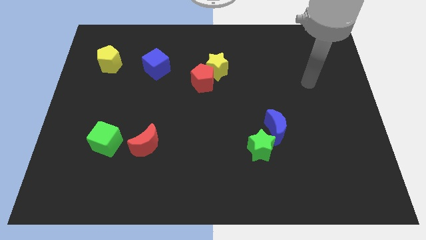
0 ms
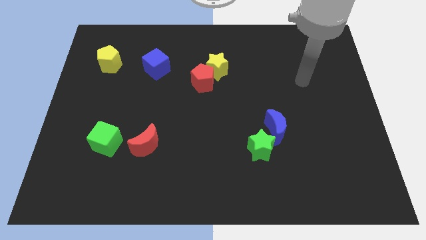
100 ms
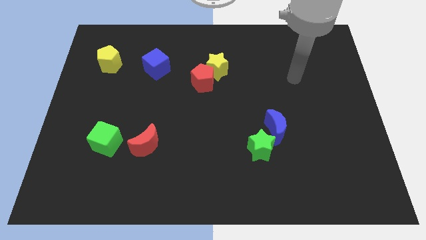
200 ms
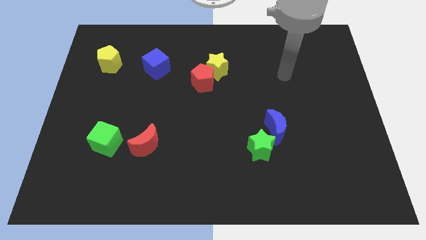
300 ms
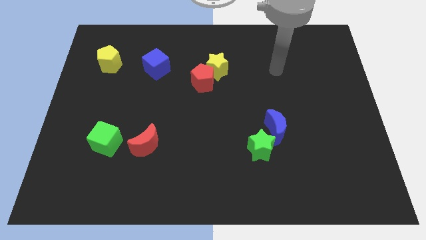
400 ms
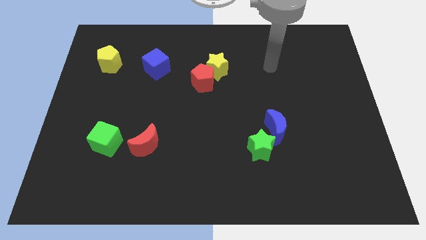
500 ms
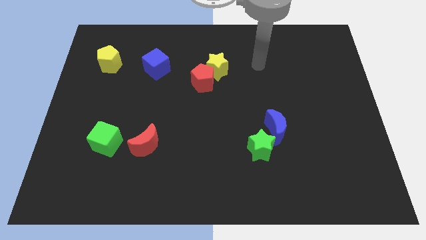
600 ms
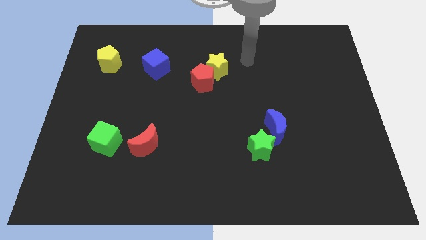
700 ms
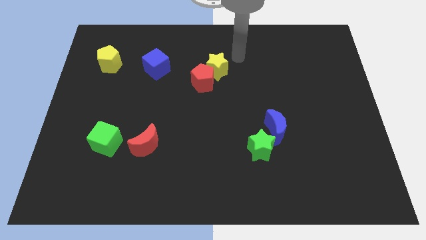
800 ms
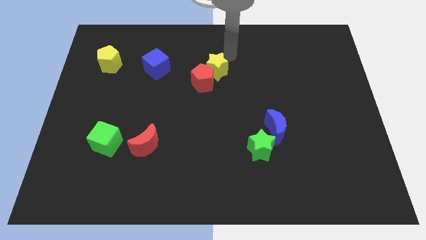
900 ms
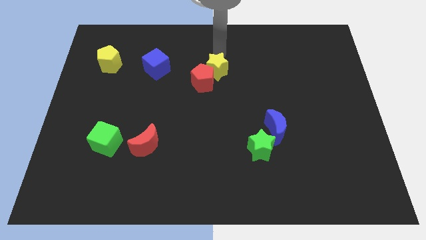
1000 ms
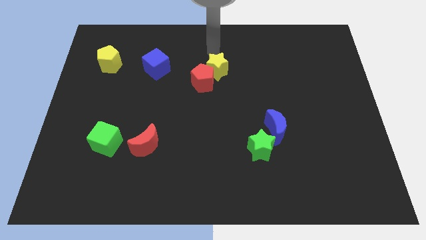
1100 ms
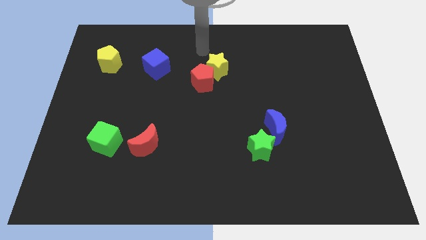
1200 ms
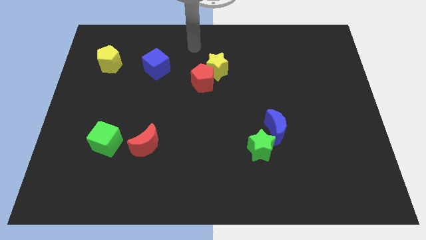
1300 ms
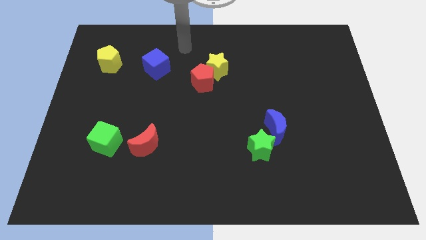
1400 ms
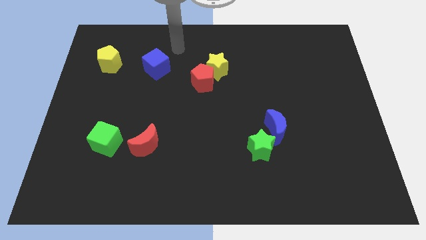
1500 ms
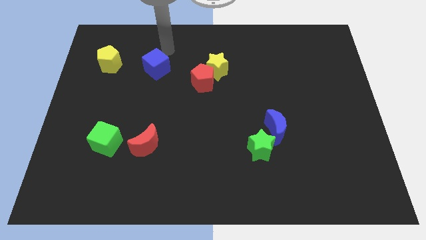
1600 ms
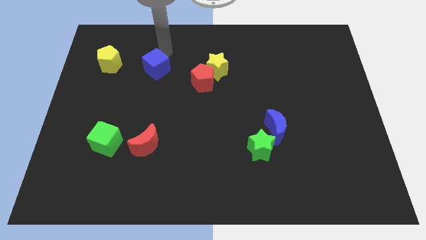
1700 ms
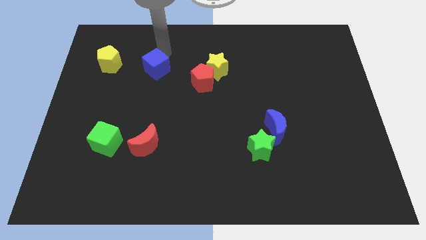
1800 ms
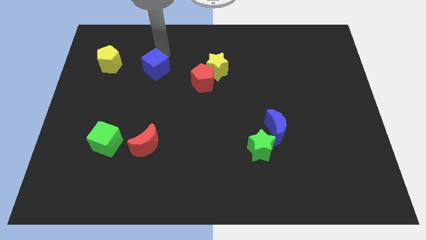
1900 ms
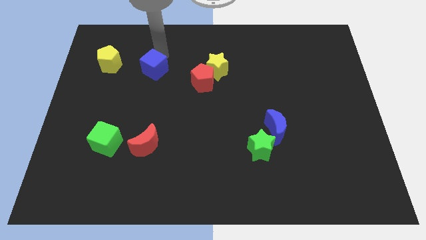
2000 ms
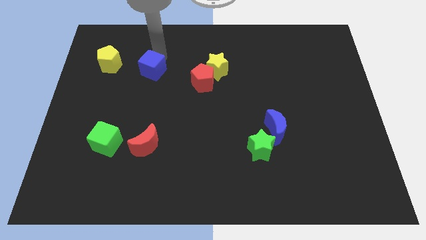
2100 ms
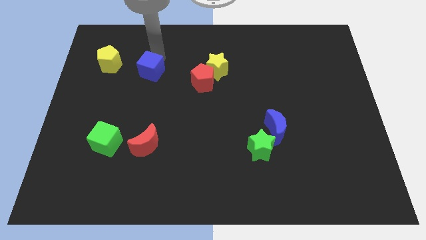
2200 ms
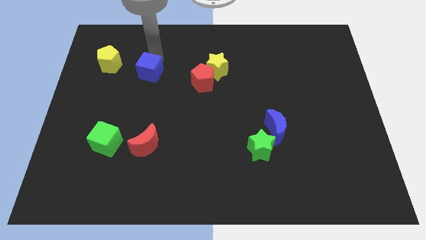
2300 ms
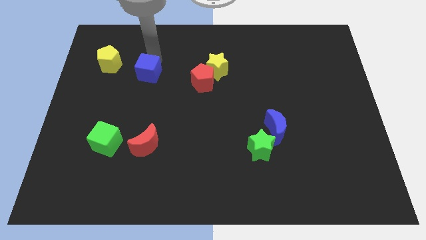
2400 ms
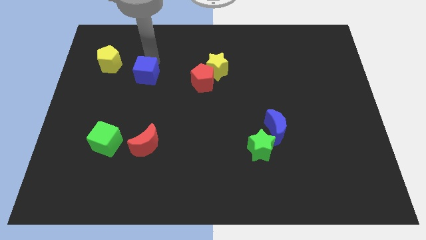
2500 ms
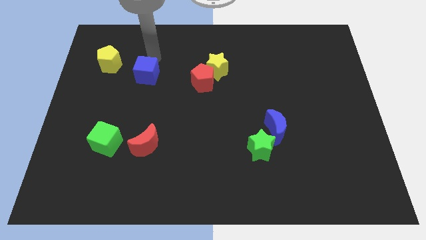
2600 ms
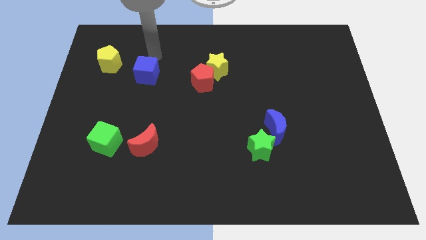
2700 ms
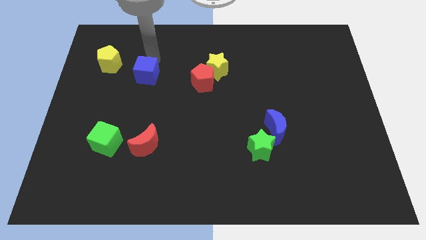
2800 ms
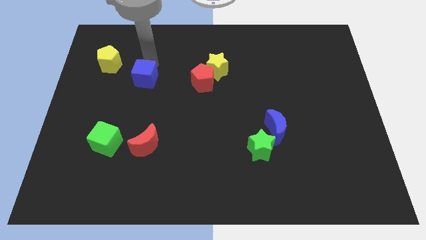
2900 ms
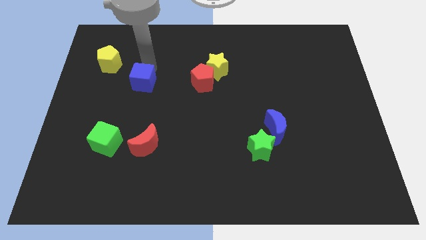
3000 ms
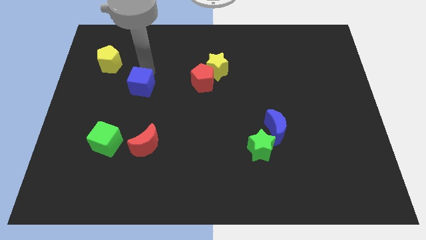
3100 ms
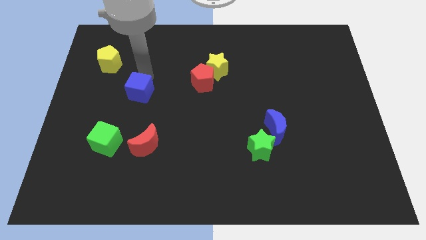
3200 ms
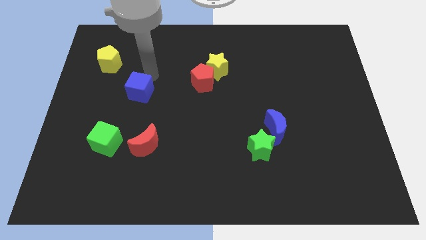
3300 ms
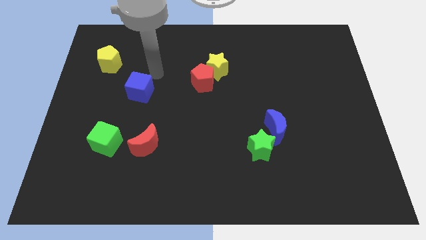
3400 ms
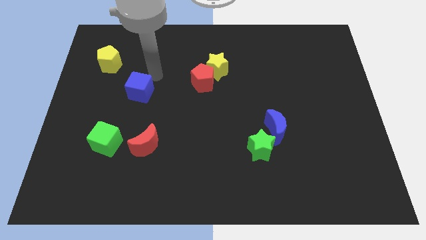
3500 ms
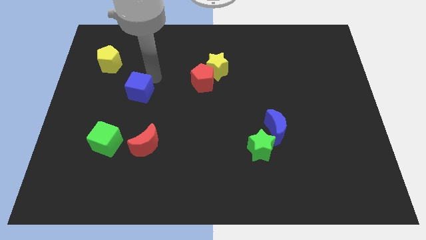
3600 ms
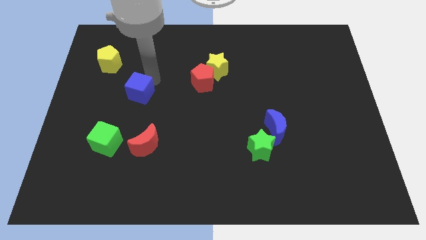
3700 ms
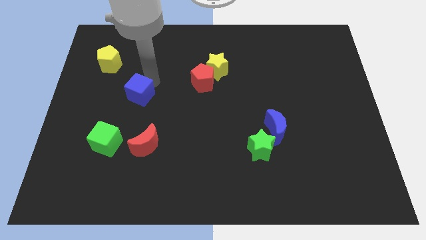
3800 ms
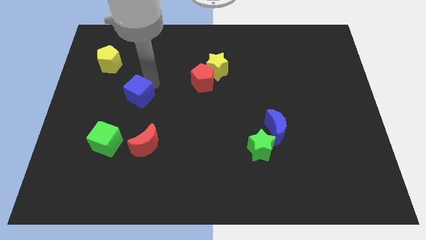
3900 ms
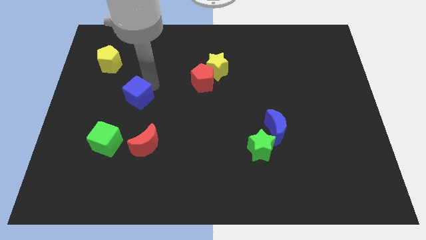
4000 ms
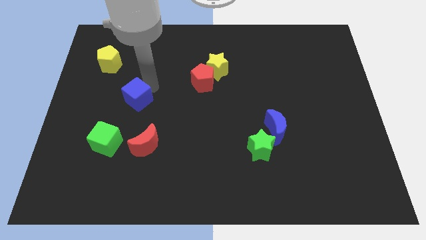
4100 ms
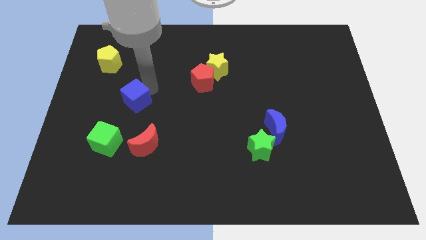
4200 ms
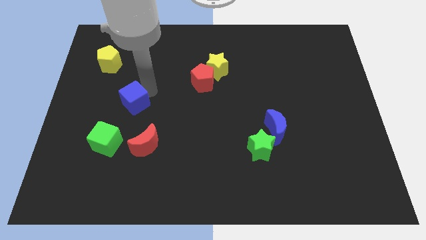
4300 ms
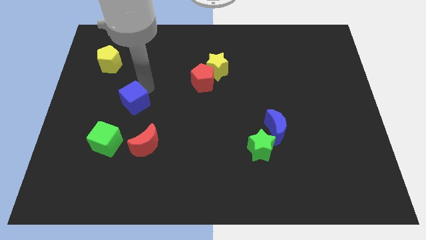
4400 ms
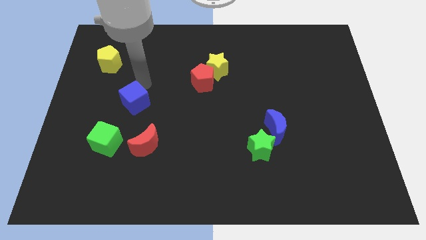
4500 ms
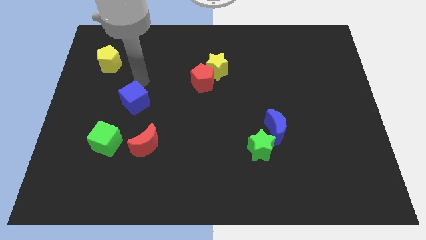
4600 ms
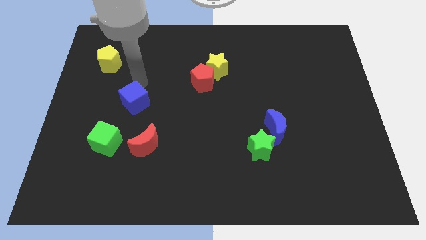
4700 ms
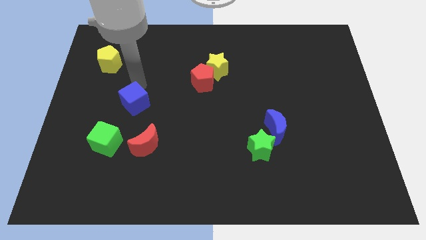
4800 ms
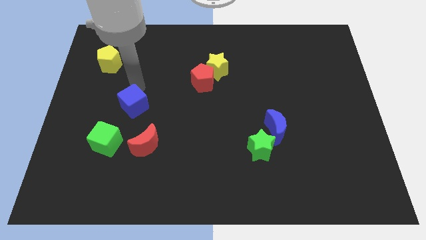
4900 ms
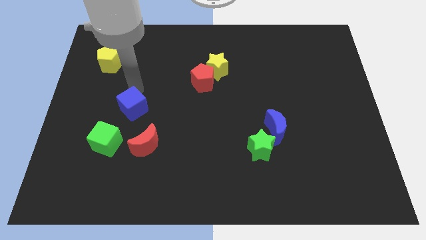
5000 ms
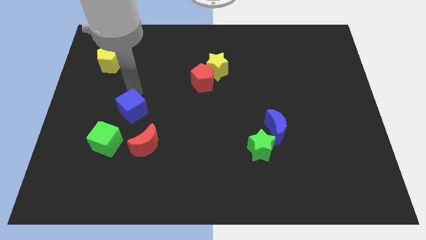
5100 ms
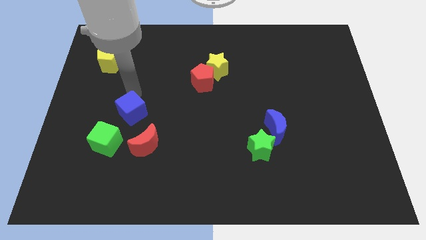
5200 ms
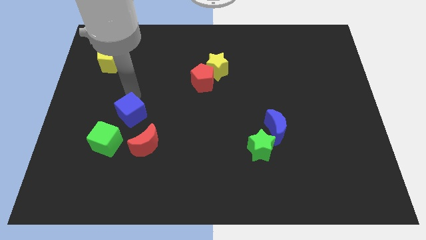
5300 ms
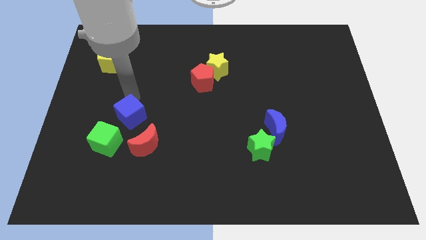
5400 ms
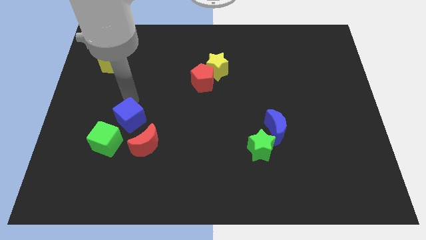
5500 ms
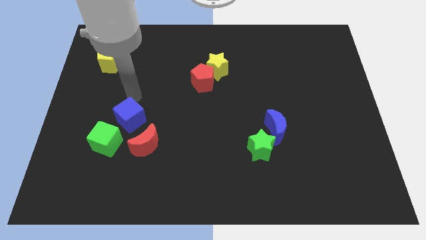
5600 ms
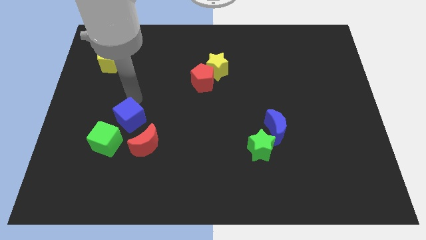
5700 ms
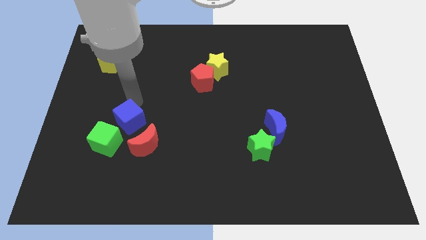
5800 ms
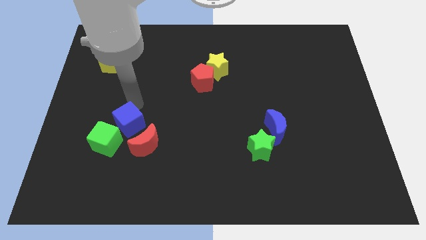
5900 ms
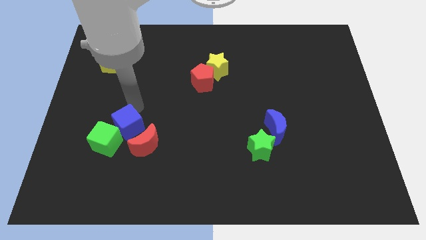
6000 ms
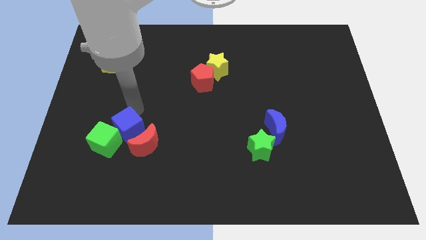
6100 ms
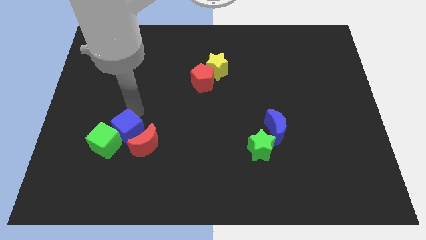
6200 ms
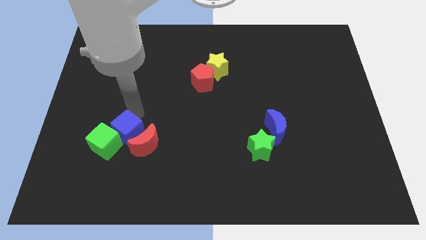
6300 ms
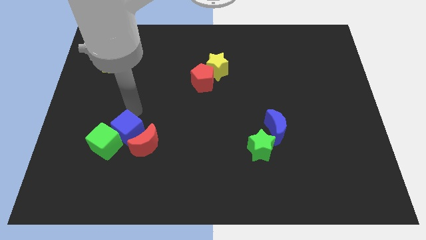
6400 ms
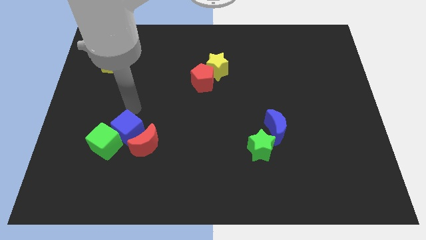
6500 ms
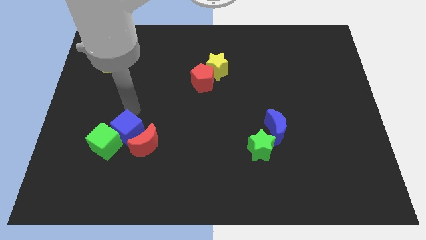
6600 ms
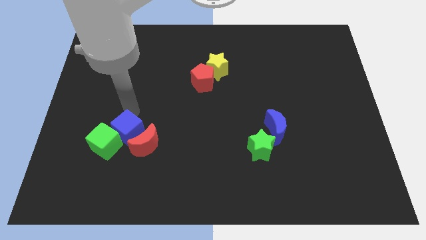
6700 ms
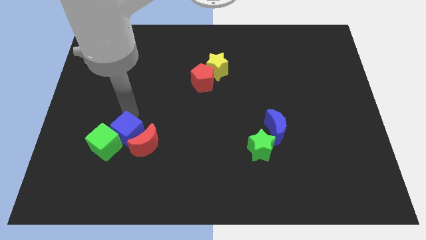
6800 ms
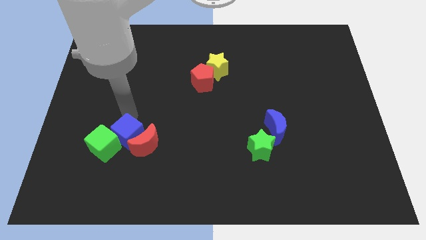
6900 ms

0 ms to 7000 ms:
move the blue cube downwards

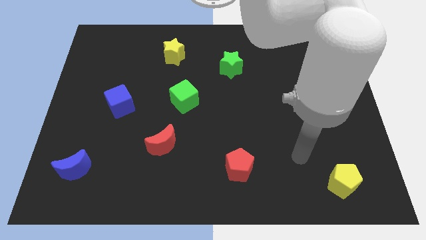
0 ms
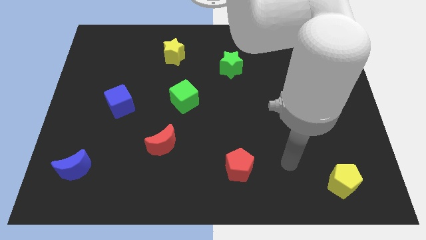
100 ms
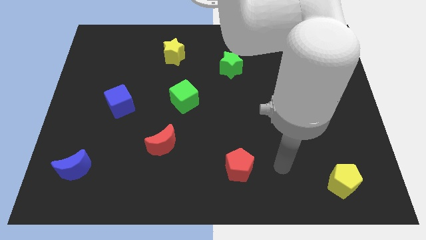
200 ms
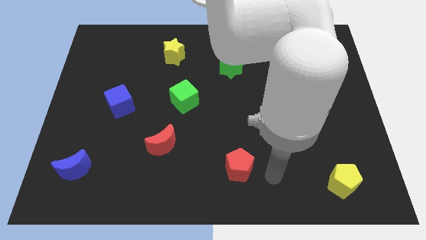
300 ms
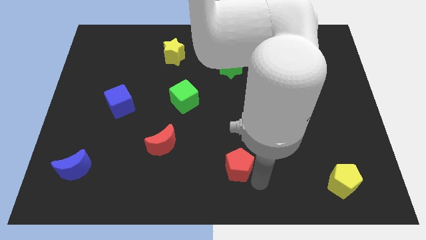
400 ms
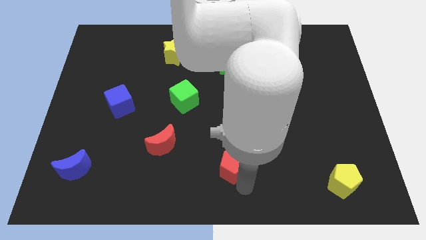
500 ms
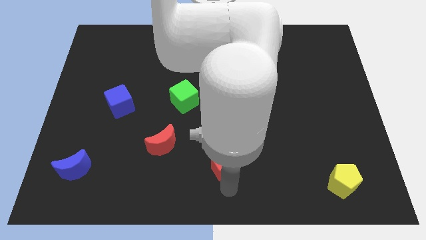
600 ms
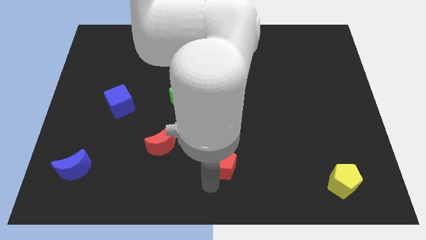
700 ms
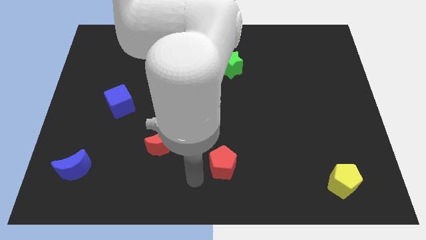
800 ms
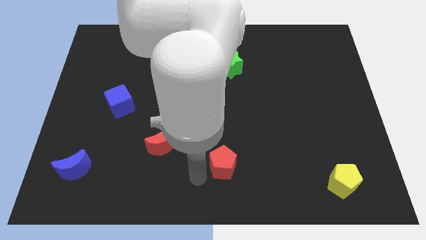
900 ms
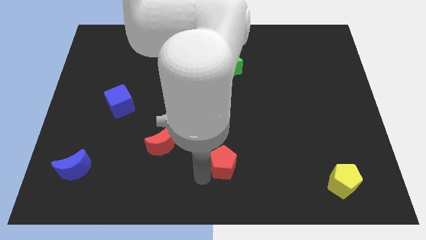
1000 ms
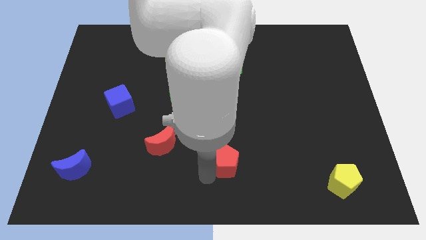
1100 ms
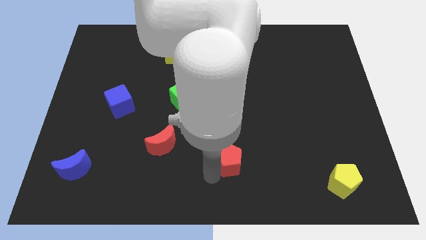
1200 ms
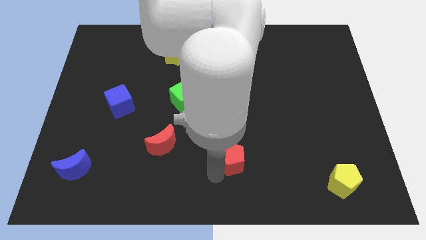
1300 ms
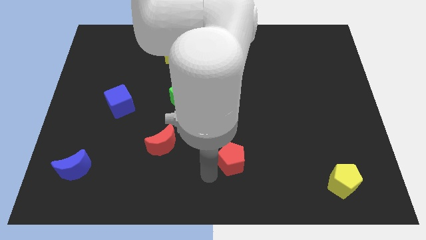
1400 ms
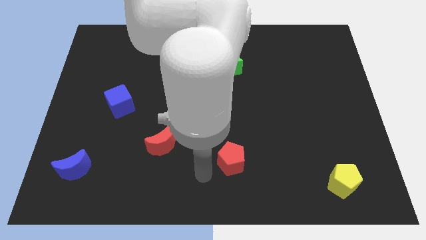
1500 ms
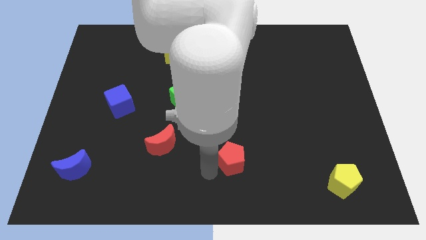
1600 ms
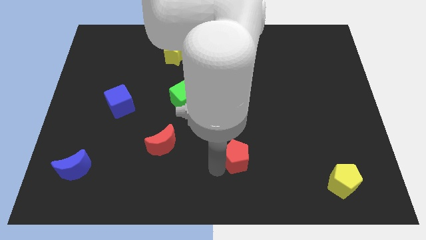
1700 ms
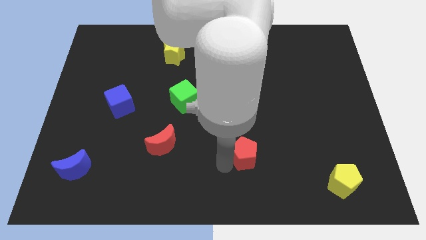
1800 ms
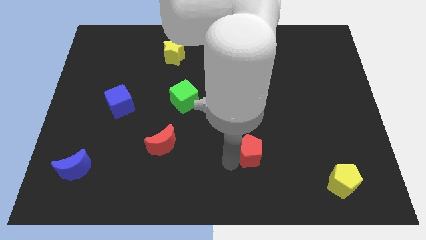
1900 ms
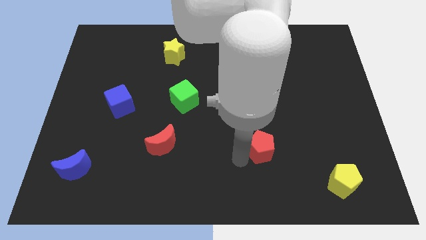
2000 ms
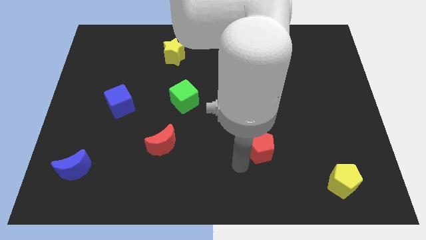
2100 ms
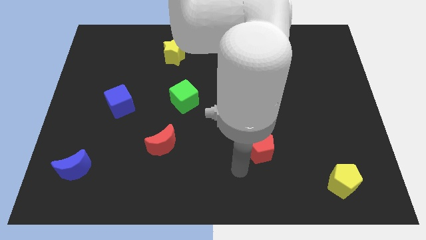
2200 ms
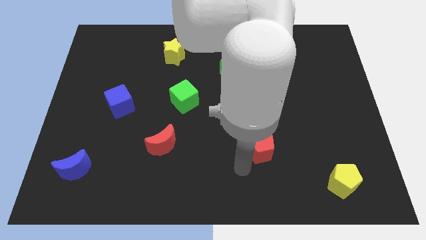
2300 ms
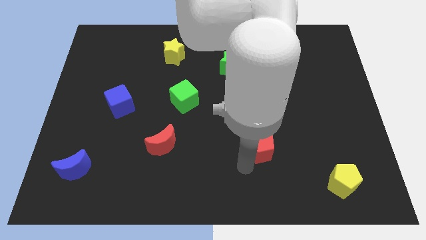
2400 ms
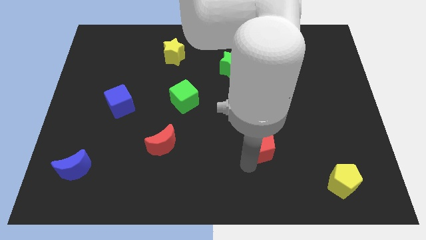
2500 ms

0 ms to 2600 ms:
slightly push the red pentagon upwards and then right
